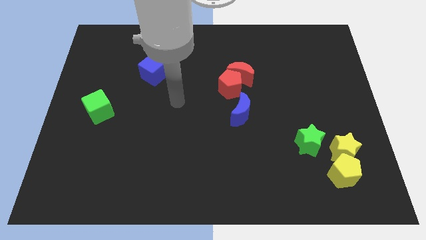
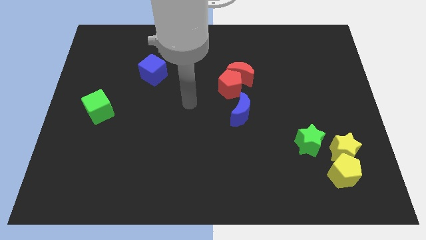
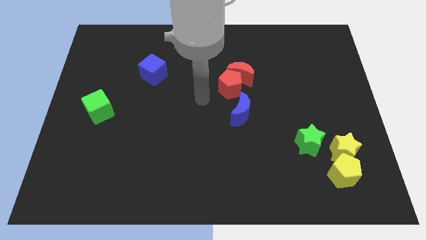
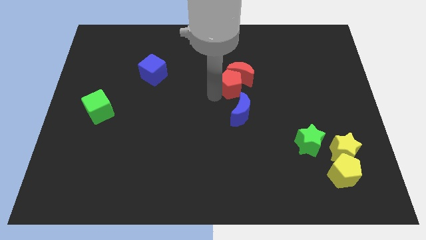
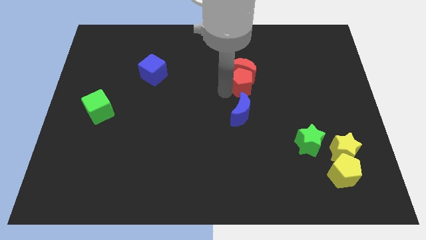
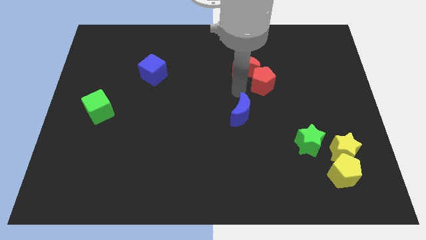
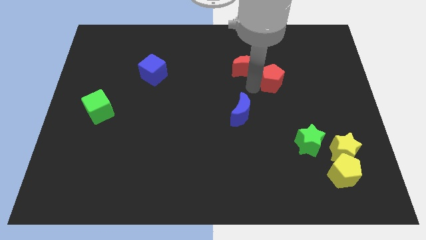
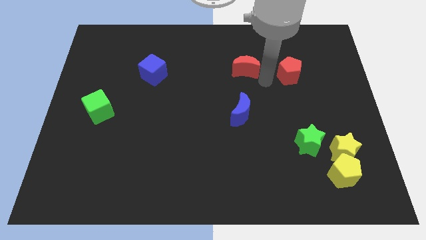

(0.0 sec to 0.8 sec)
pull the red moon apart from the red pentagon

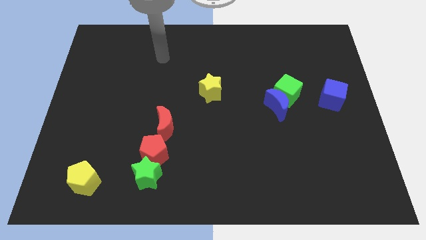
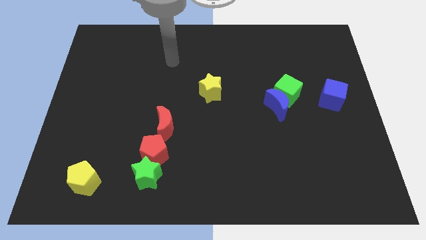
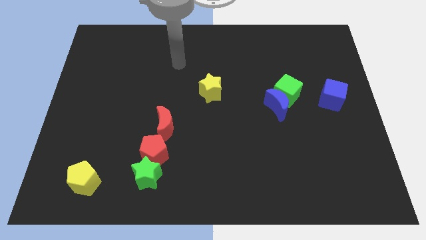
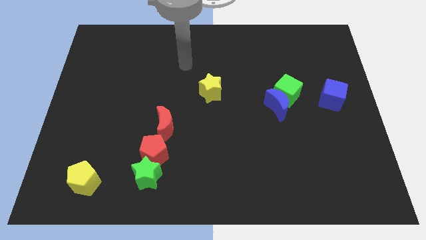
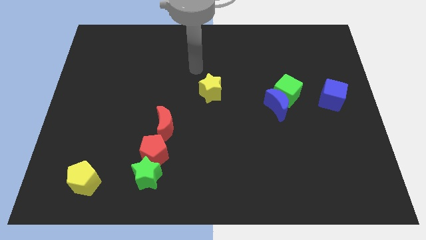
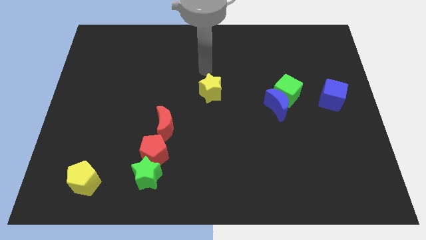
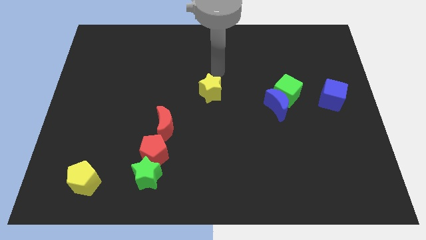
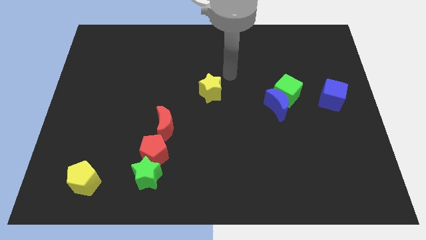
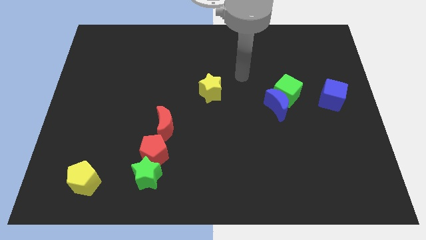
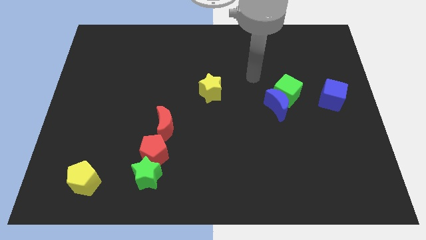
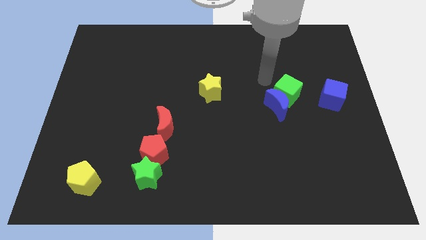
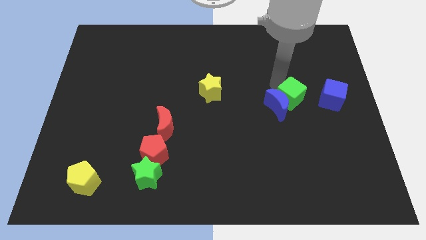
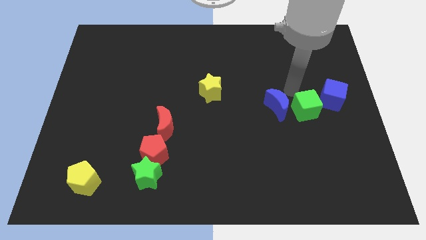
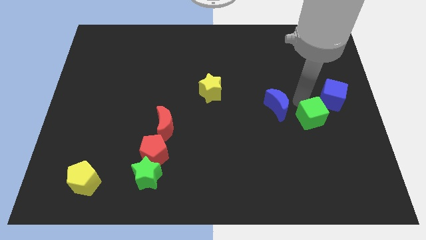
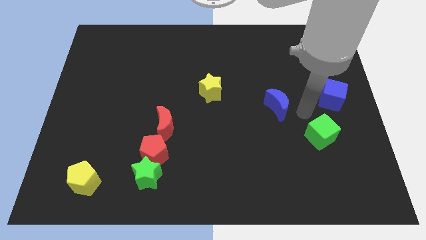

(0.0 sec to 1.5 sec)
move the blue moon away from the green cube

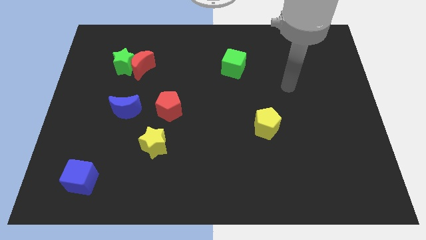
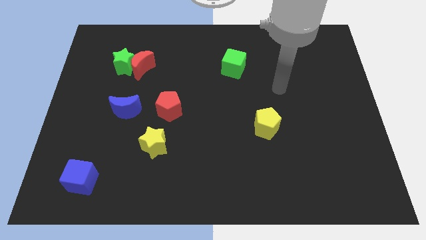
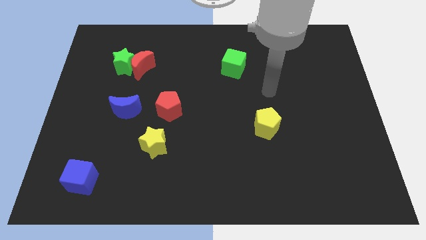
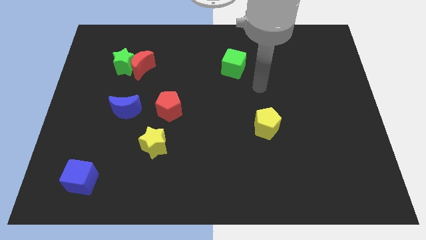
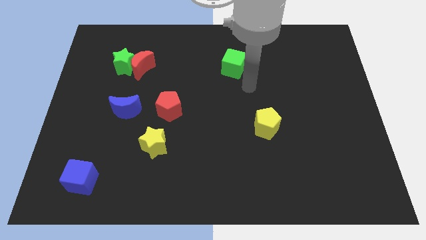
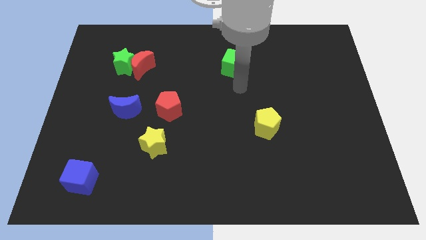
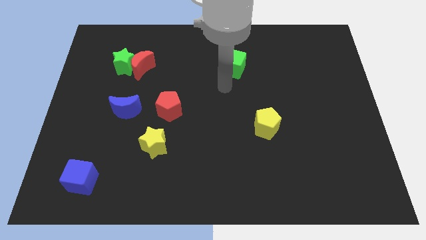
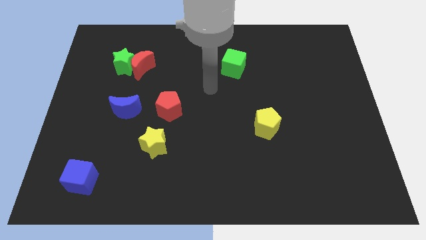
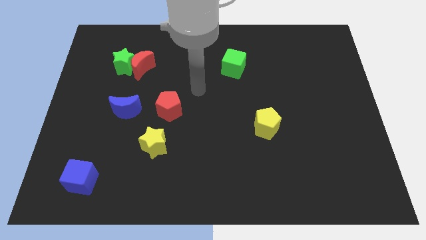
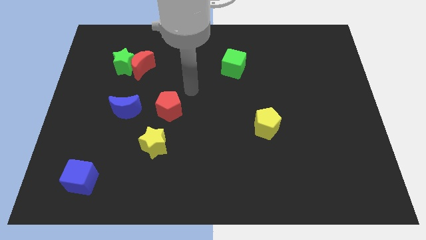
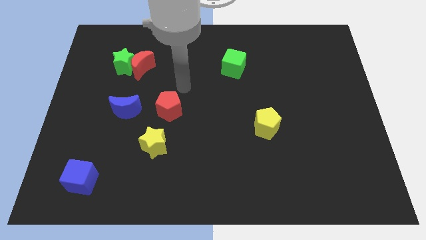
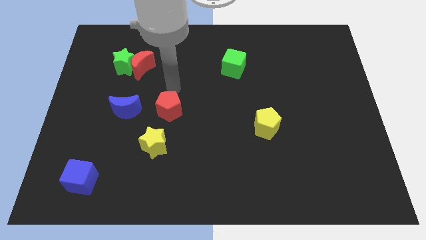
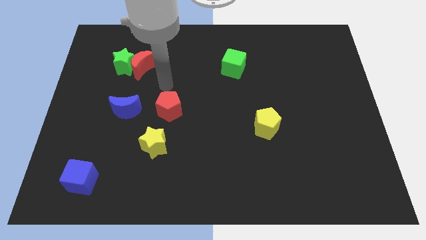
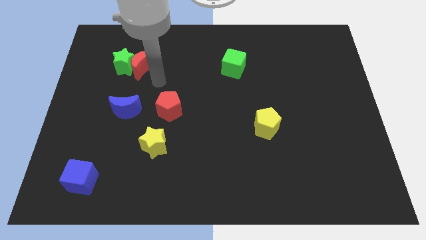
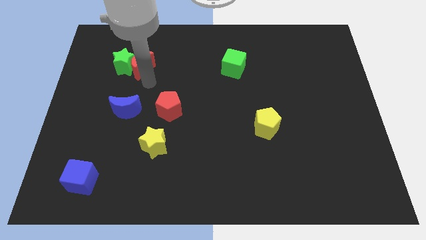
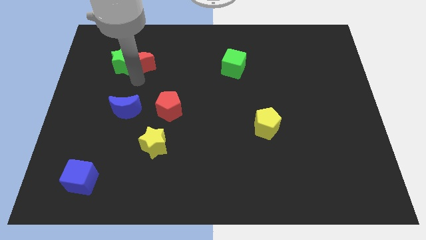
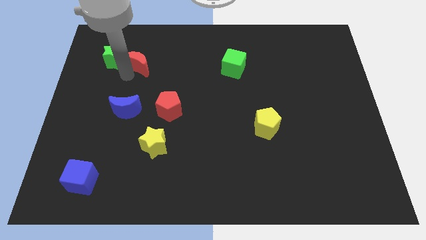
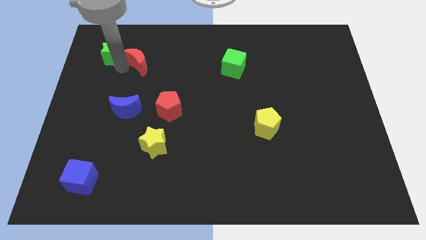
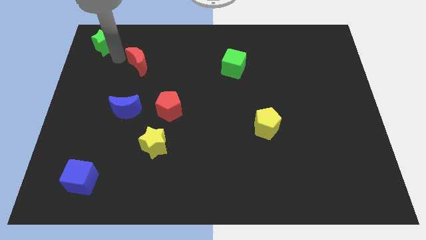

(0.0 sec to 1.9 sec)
pull the red moon apart from the green star

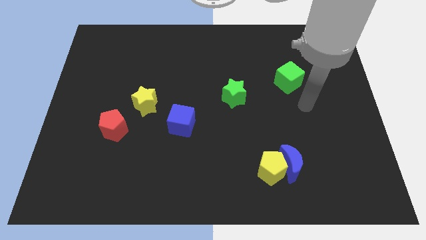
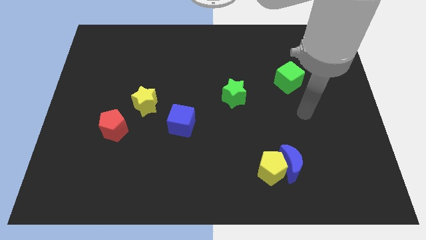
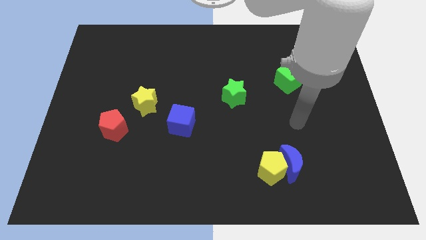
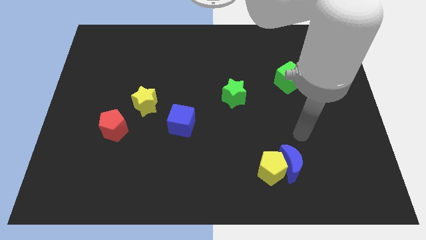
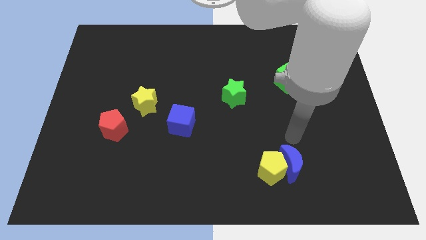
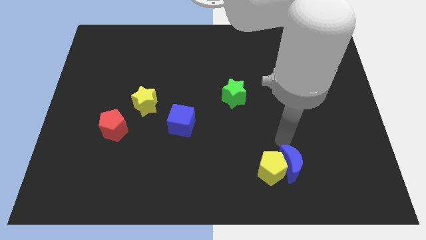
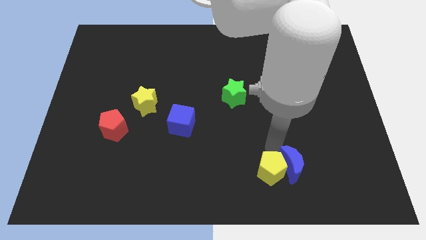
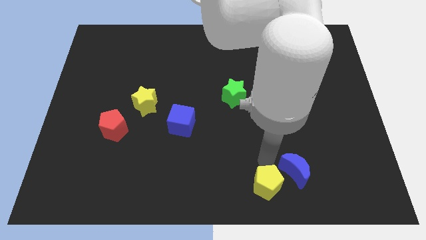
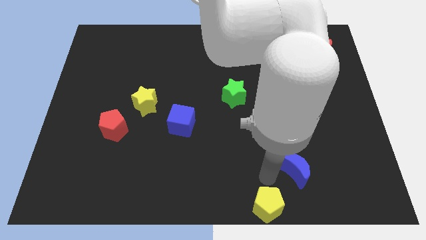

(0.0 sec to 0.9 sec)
separate the blue moon from the yellow pentagon

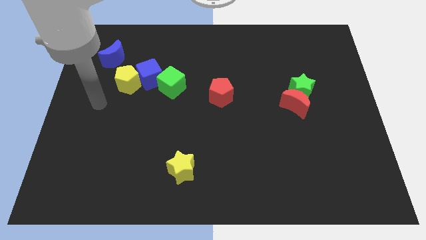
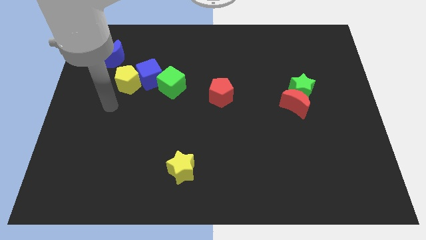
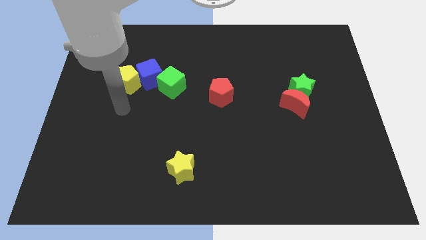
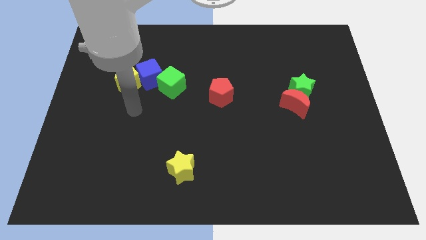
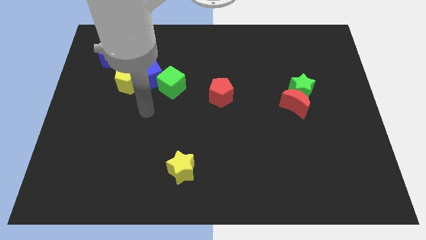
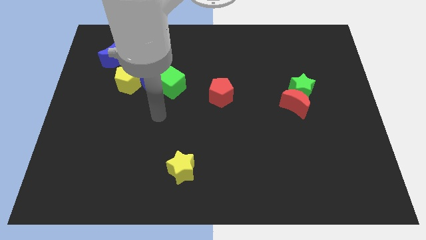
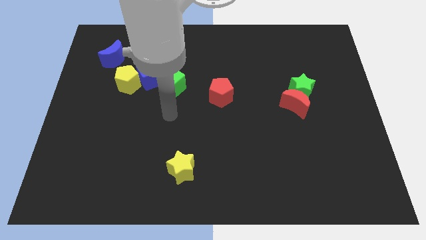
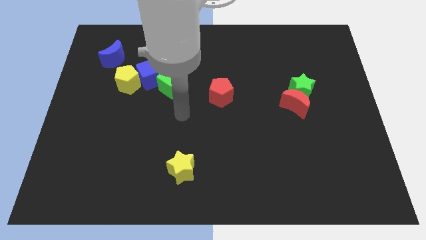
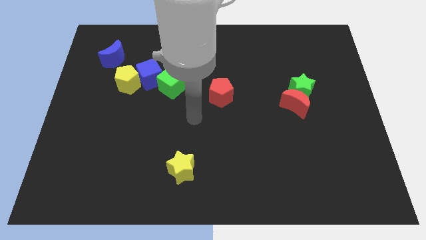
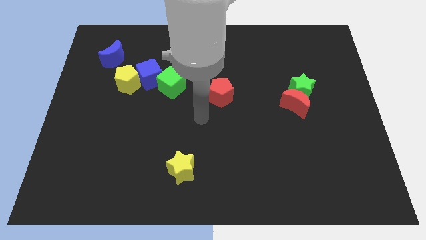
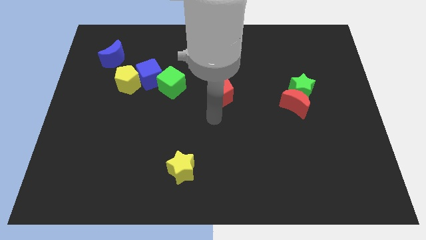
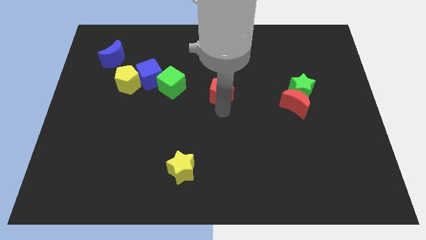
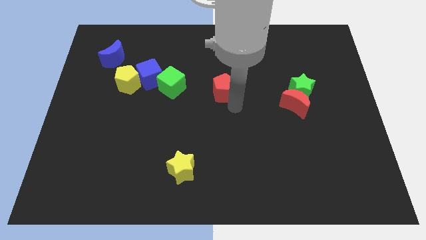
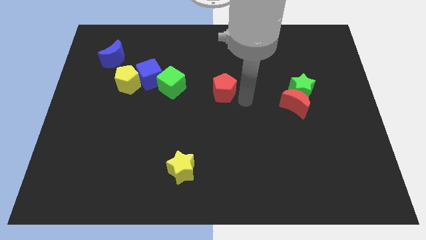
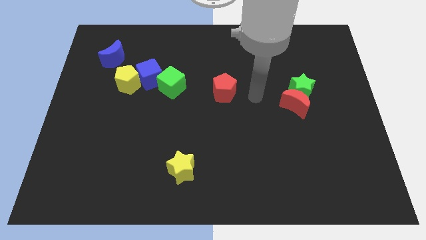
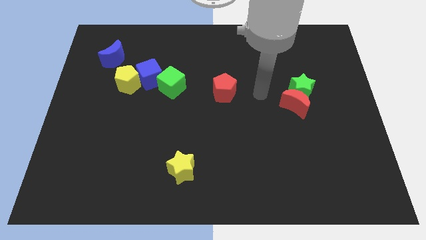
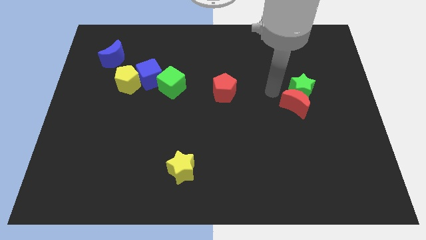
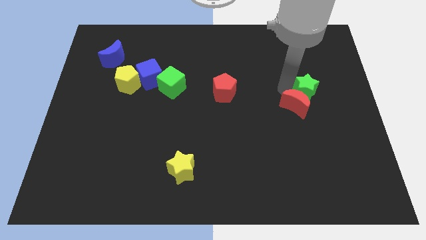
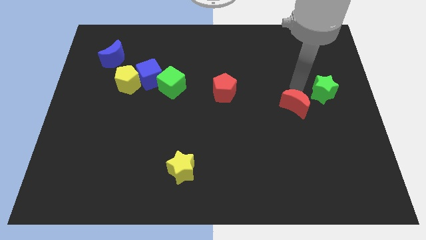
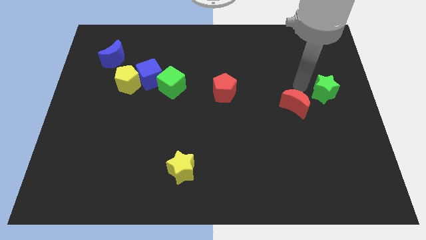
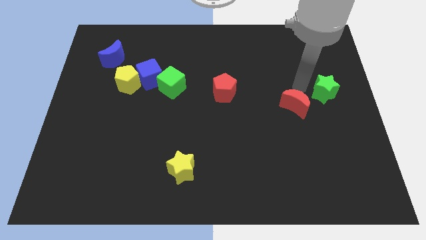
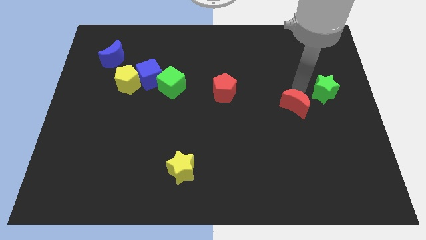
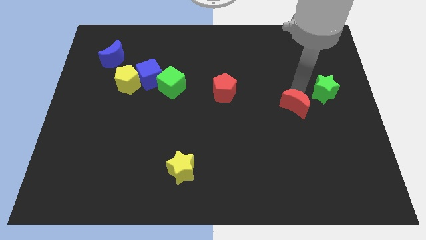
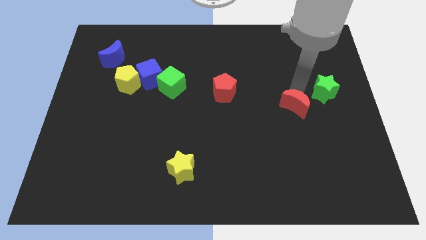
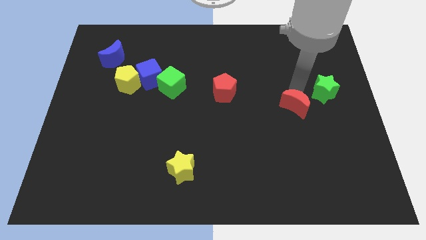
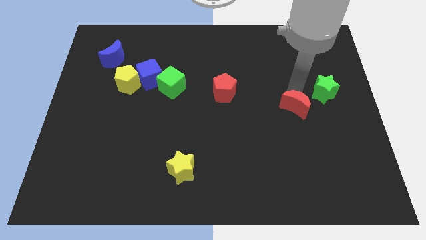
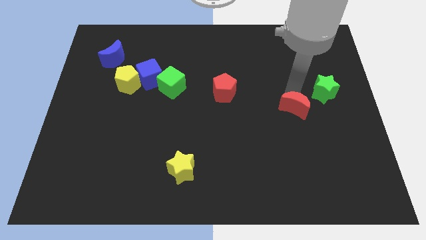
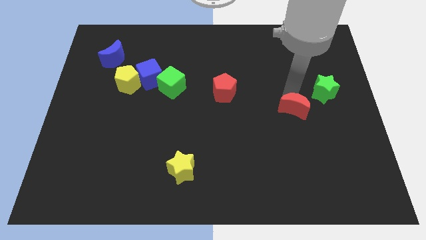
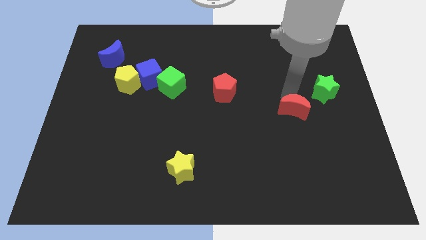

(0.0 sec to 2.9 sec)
move the red moon away from the green star

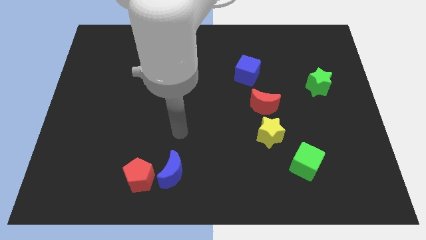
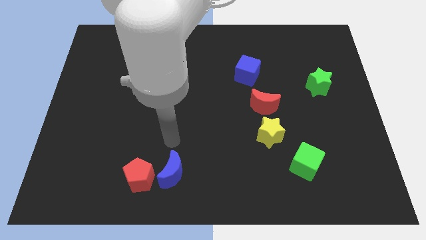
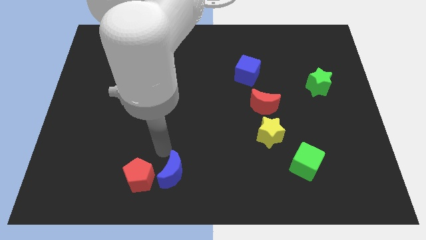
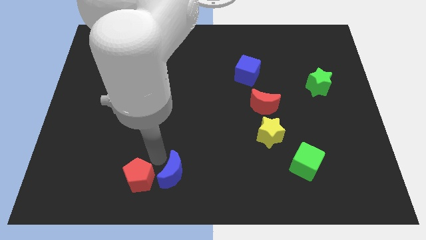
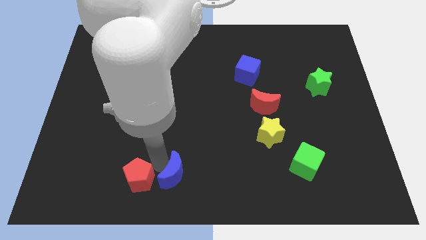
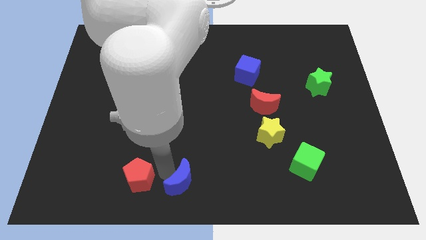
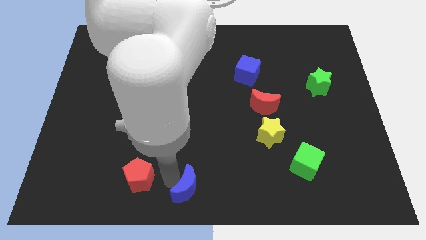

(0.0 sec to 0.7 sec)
move the red pentagon away from the blue moon

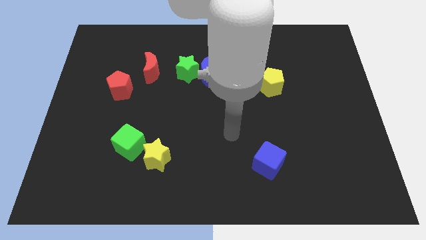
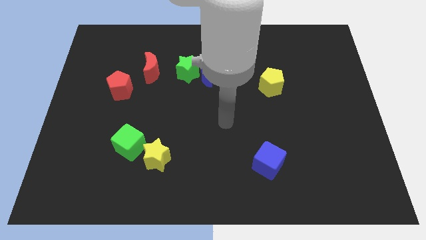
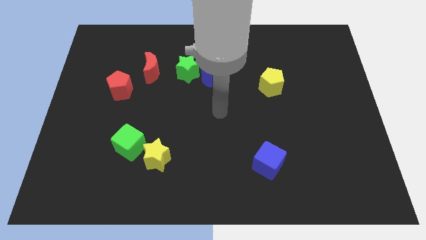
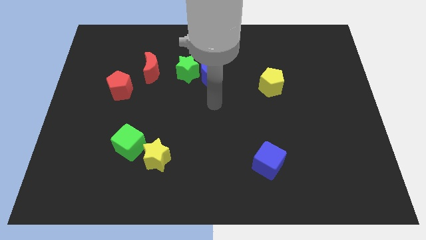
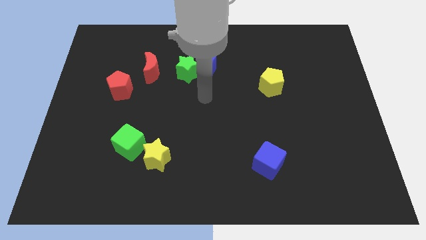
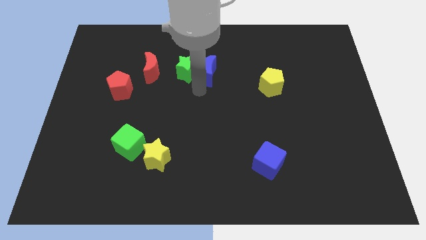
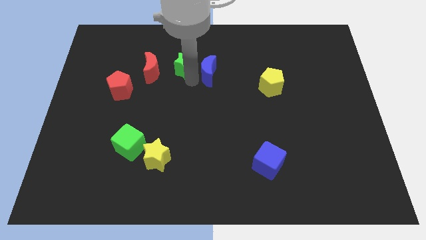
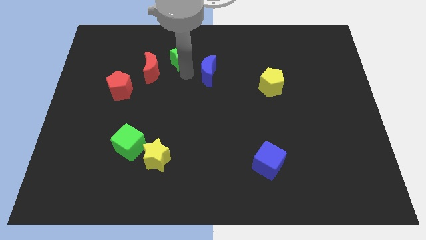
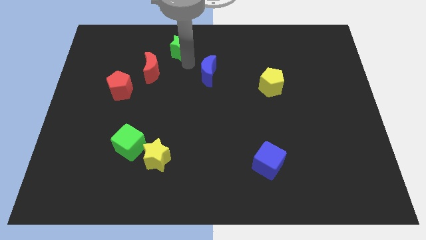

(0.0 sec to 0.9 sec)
move the blue moon away from the green star
